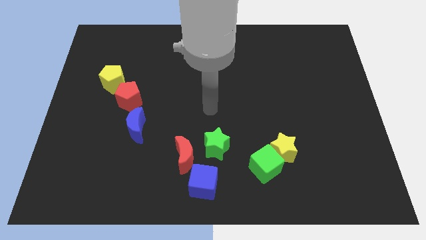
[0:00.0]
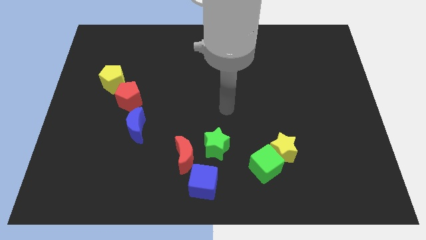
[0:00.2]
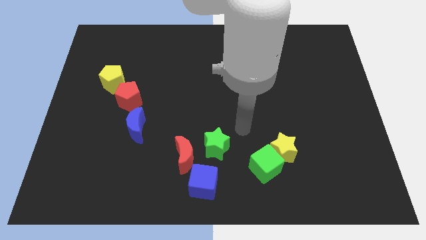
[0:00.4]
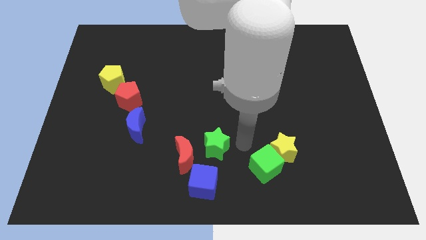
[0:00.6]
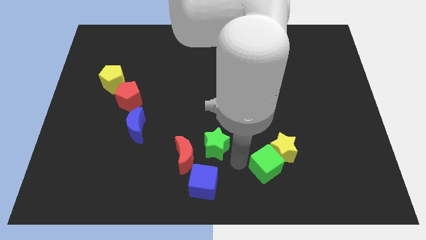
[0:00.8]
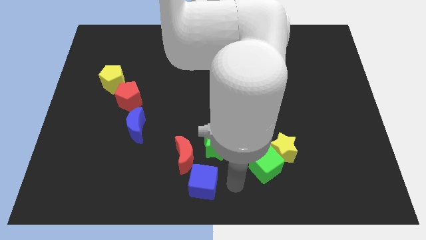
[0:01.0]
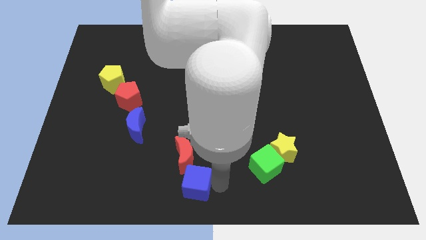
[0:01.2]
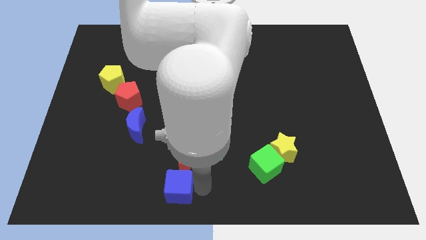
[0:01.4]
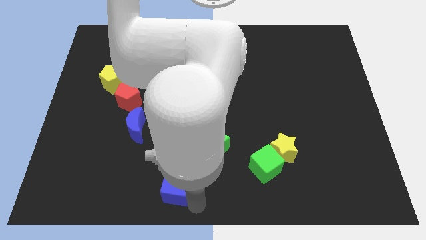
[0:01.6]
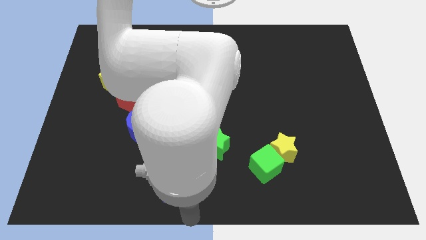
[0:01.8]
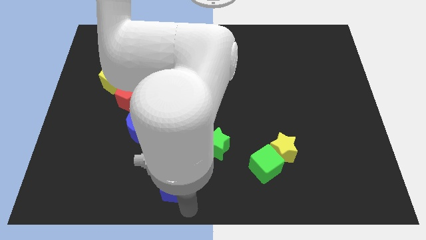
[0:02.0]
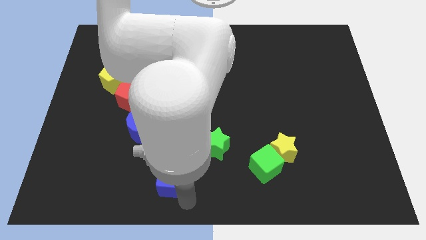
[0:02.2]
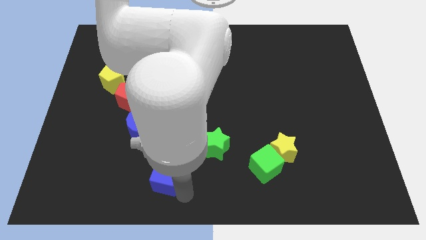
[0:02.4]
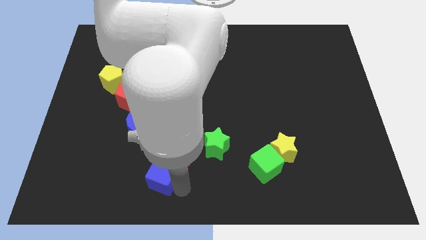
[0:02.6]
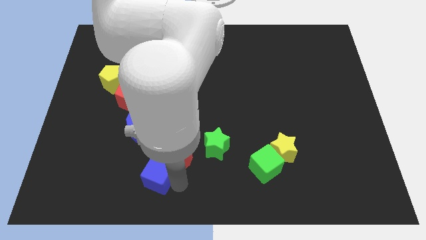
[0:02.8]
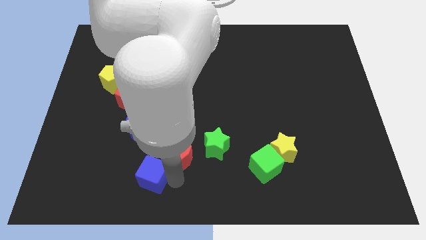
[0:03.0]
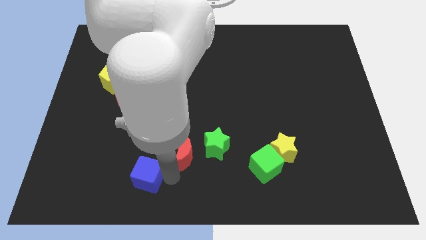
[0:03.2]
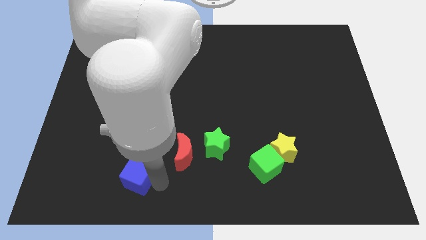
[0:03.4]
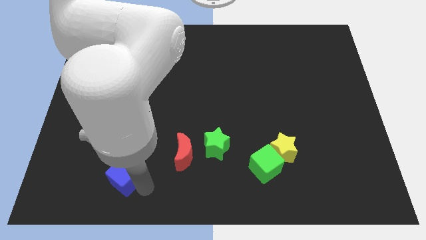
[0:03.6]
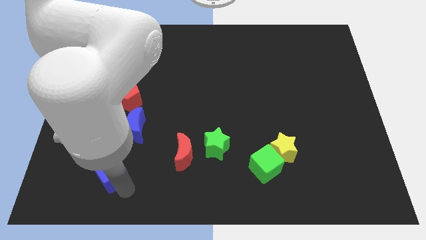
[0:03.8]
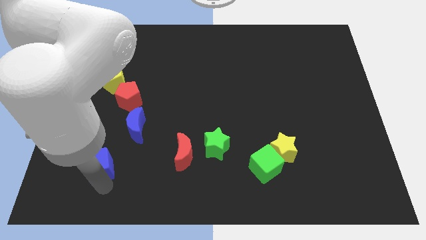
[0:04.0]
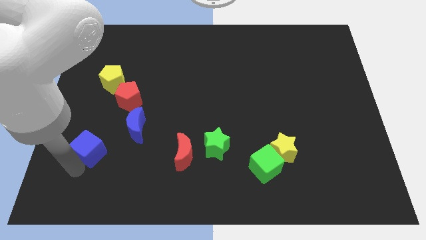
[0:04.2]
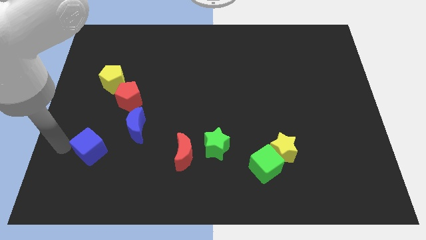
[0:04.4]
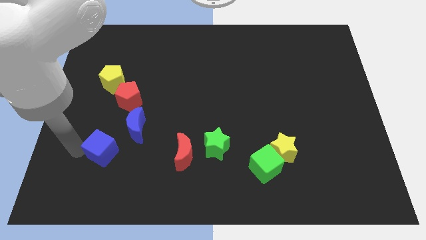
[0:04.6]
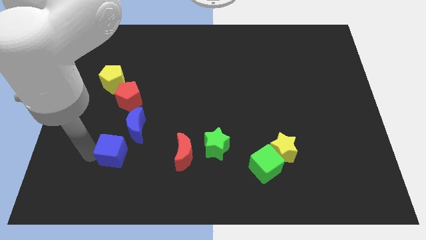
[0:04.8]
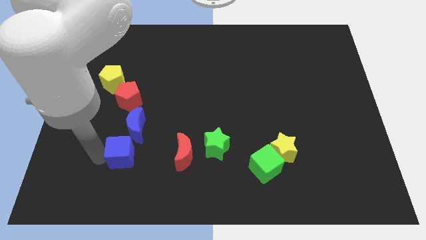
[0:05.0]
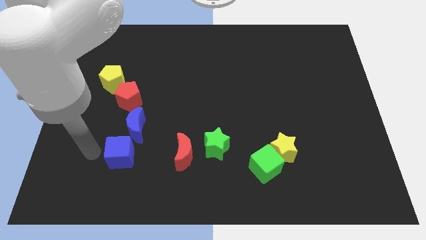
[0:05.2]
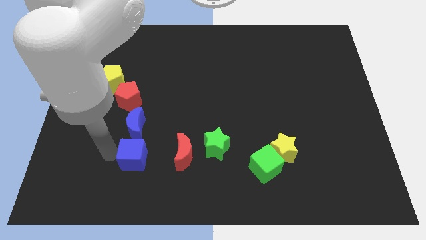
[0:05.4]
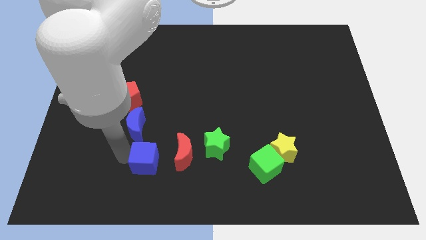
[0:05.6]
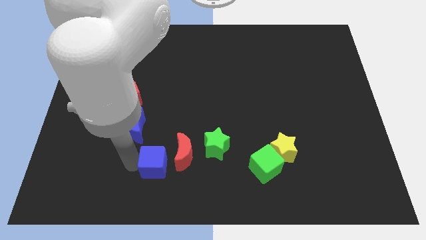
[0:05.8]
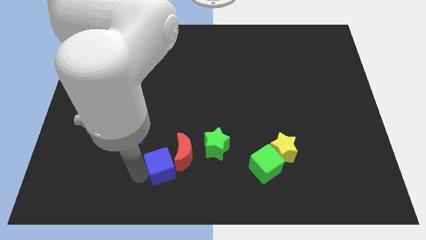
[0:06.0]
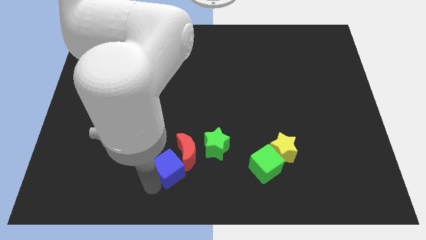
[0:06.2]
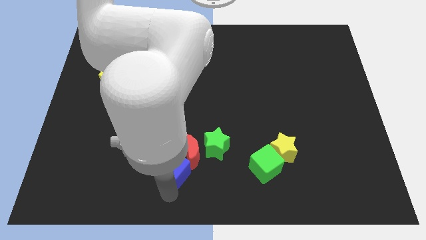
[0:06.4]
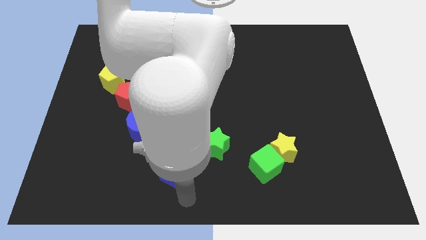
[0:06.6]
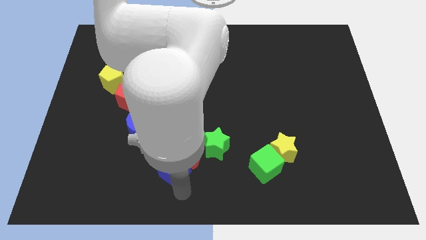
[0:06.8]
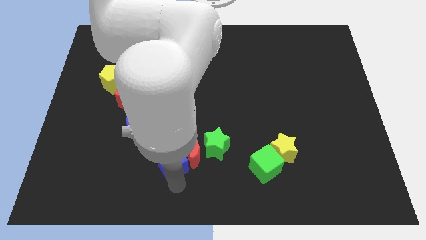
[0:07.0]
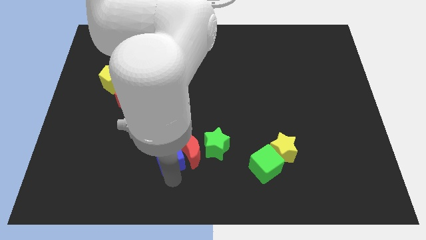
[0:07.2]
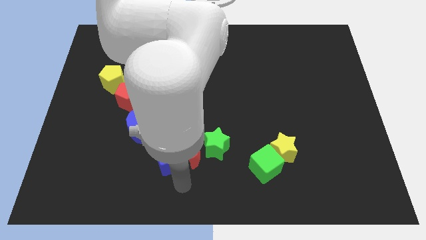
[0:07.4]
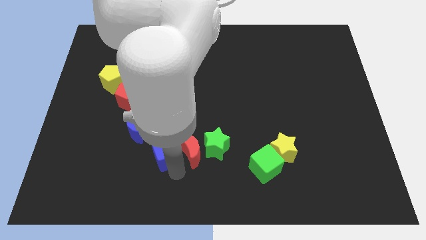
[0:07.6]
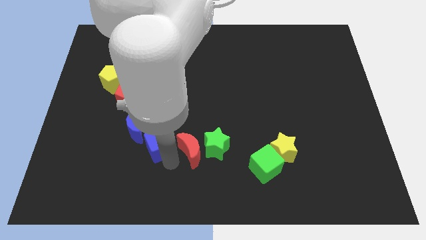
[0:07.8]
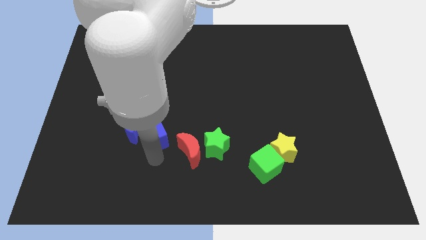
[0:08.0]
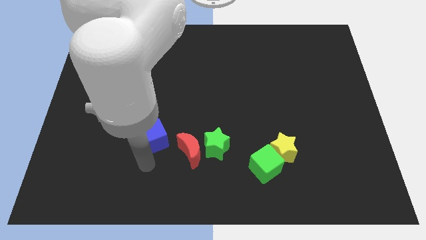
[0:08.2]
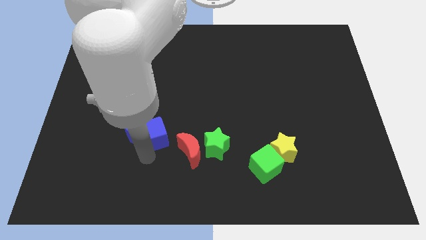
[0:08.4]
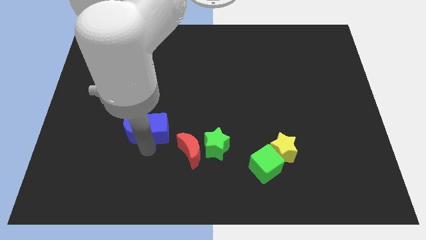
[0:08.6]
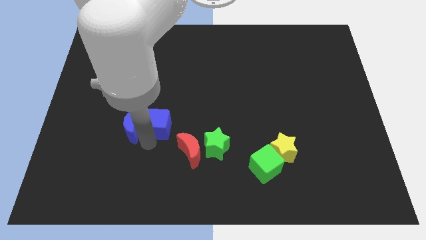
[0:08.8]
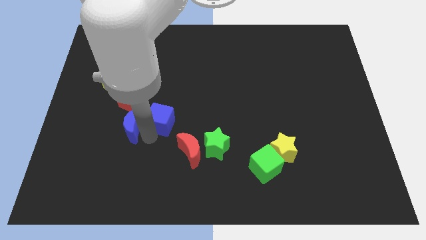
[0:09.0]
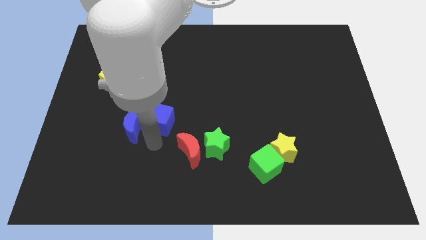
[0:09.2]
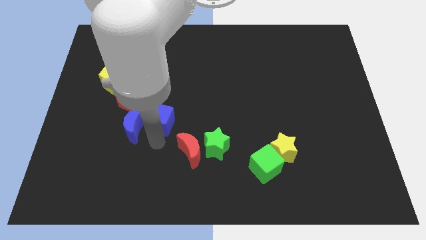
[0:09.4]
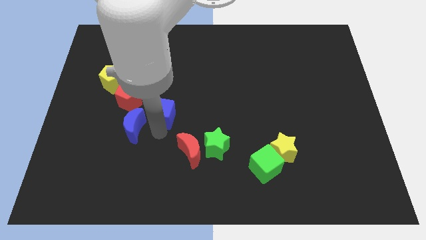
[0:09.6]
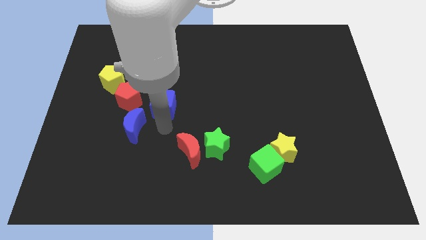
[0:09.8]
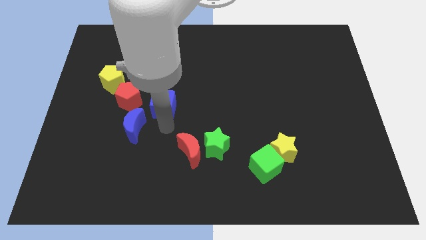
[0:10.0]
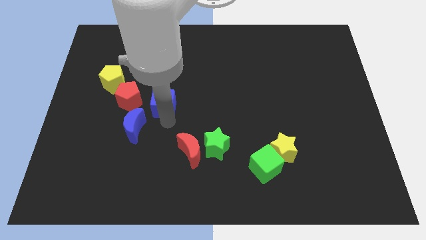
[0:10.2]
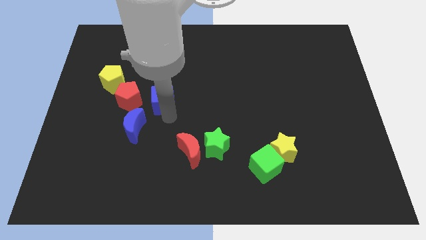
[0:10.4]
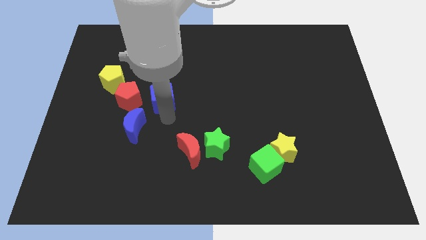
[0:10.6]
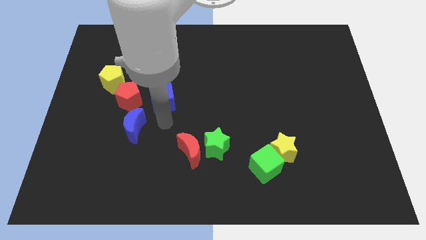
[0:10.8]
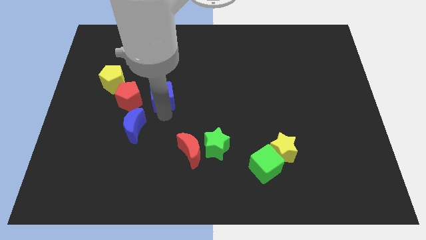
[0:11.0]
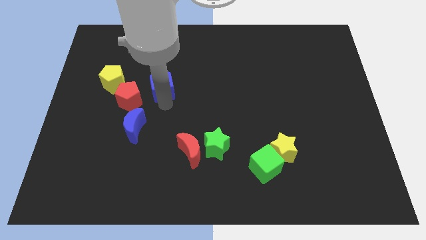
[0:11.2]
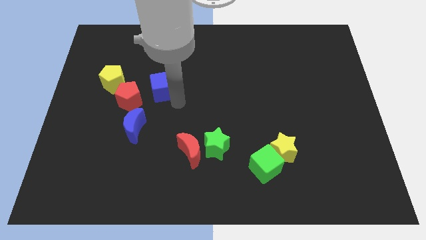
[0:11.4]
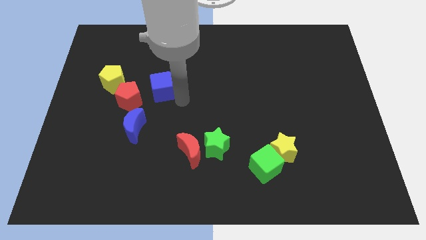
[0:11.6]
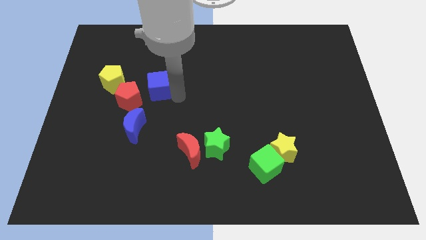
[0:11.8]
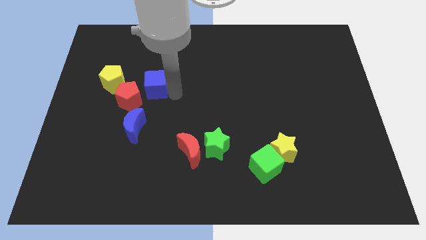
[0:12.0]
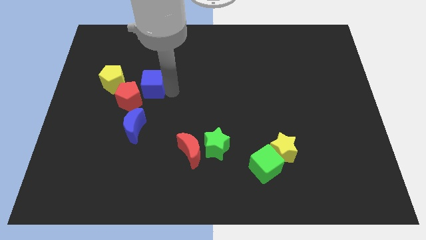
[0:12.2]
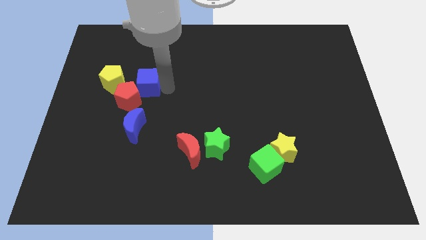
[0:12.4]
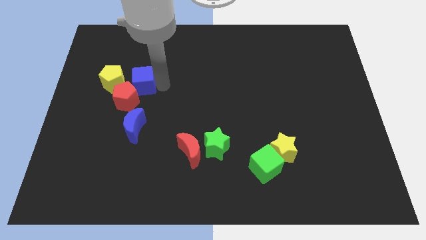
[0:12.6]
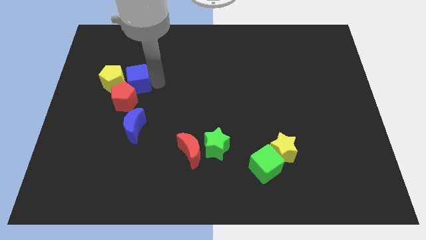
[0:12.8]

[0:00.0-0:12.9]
push the blue cube diagonally up and to the right of the yellow pentagon
